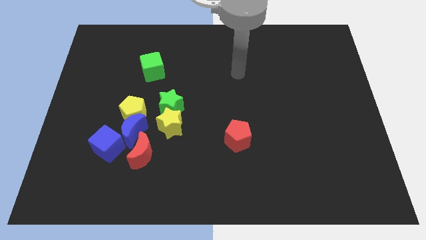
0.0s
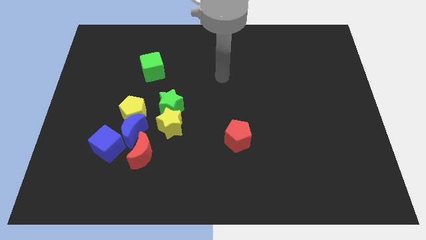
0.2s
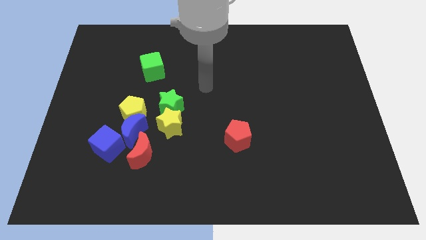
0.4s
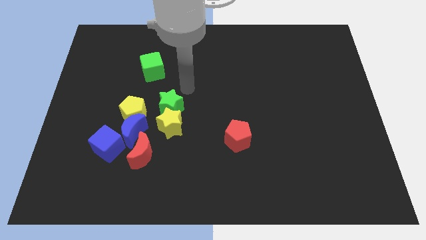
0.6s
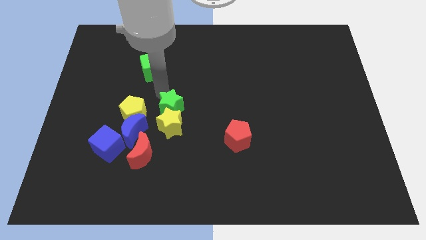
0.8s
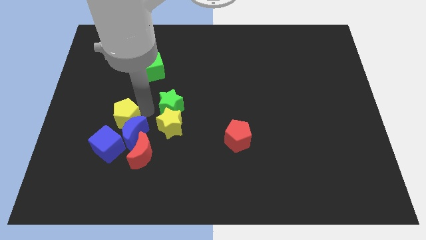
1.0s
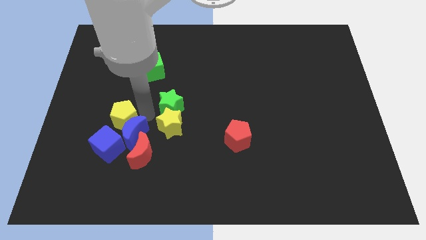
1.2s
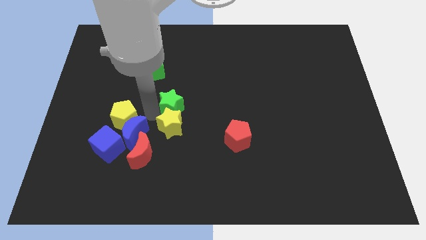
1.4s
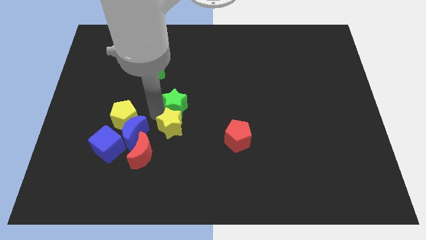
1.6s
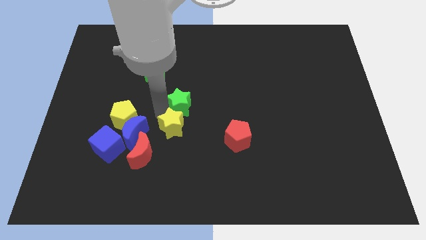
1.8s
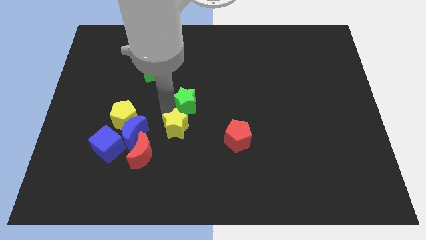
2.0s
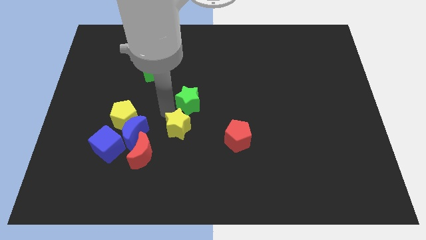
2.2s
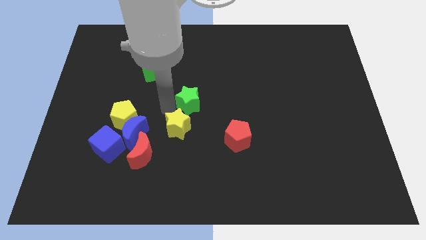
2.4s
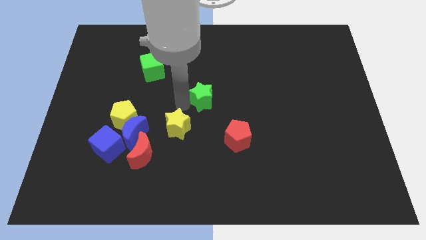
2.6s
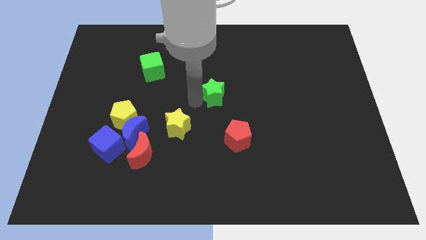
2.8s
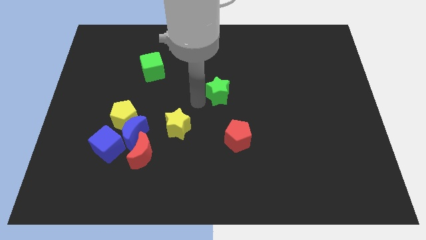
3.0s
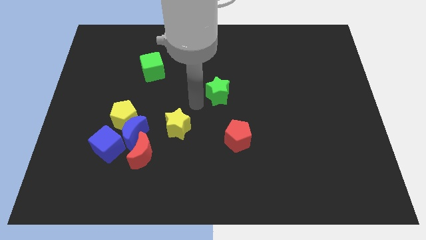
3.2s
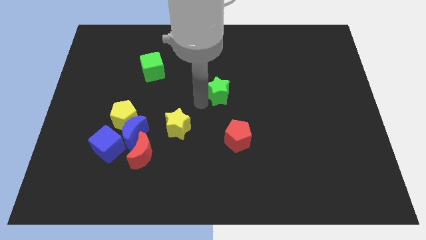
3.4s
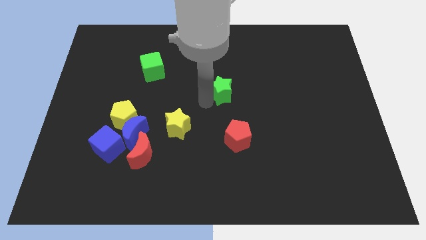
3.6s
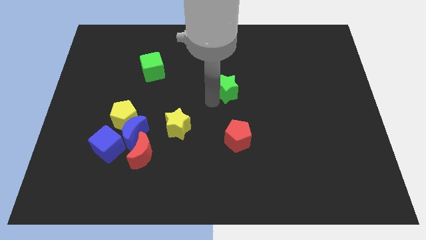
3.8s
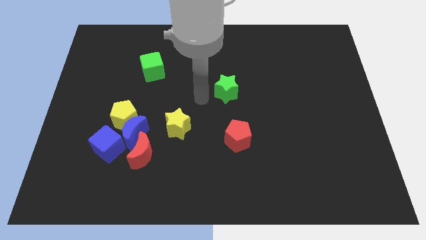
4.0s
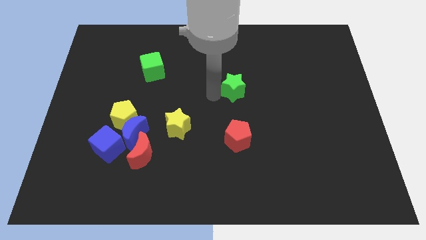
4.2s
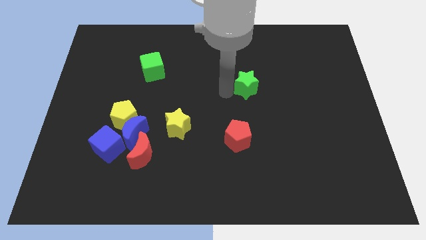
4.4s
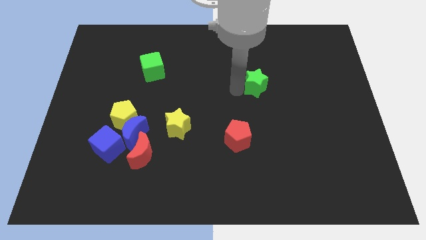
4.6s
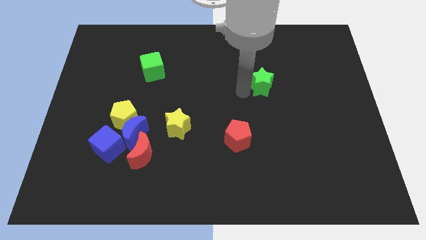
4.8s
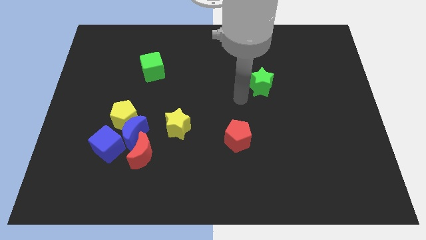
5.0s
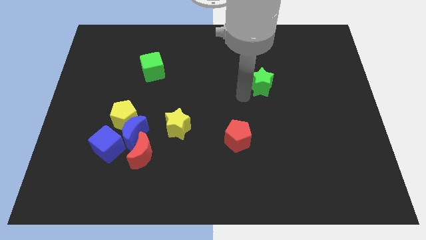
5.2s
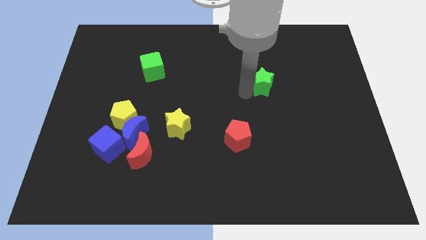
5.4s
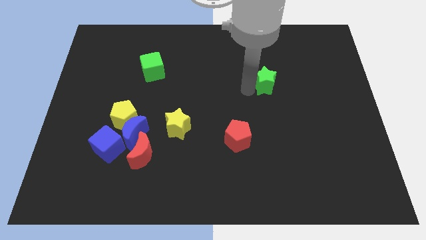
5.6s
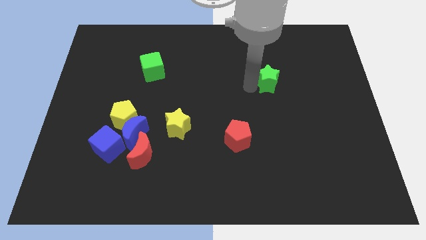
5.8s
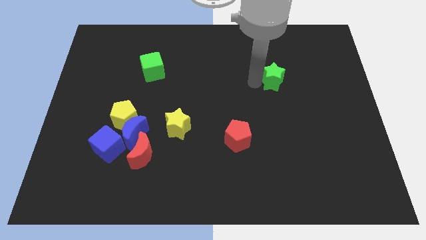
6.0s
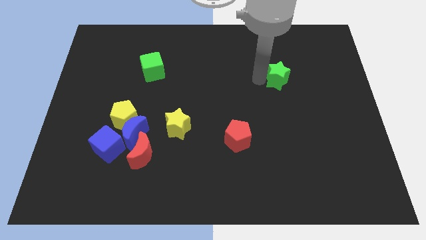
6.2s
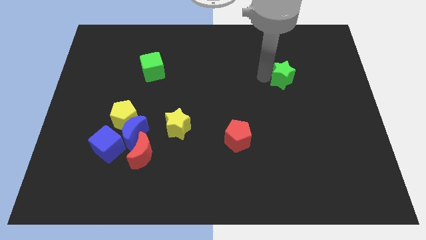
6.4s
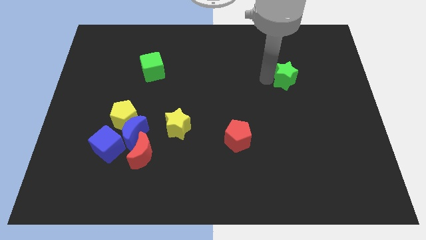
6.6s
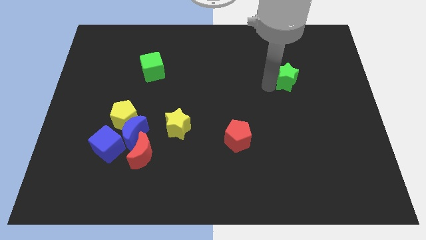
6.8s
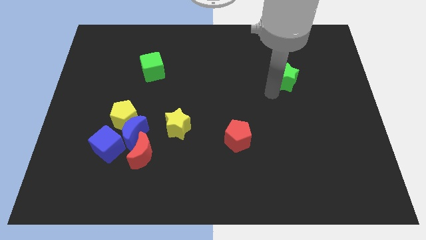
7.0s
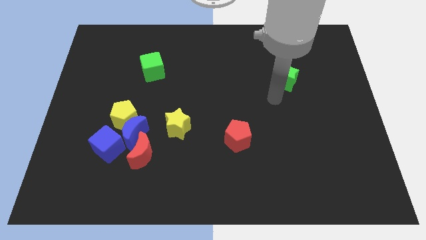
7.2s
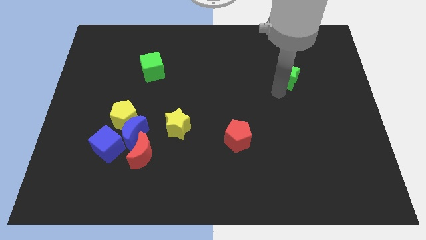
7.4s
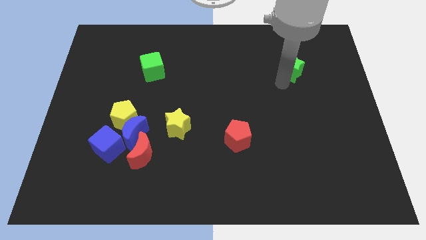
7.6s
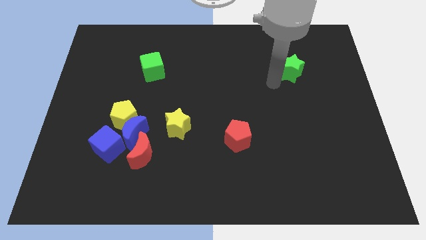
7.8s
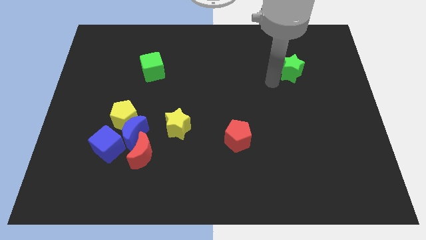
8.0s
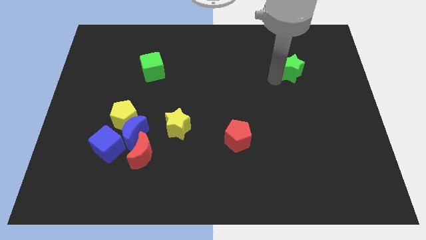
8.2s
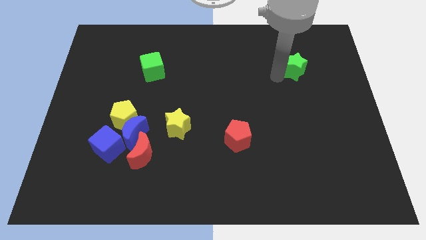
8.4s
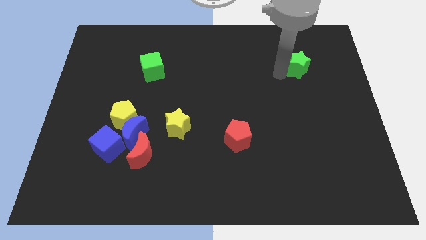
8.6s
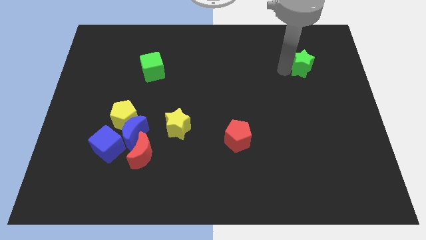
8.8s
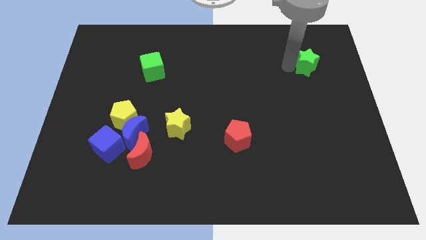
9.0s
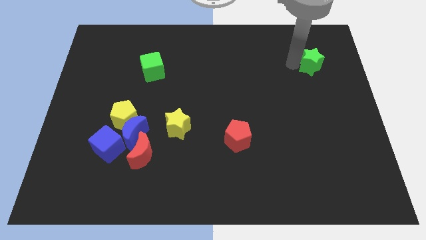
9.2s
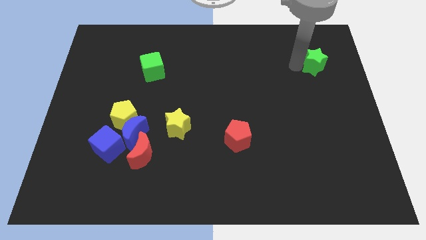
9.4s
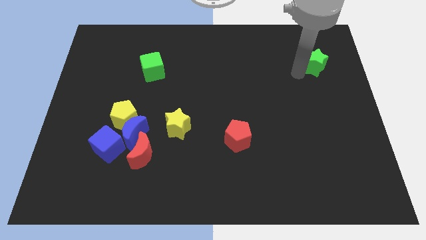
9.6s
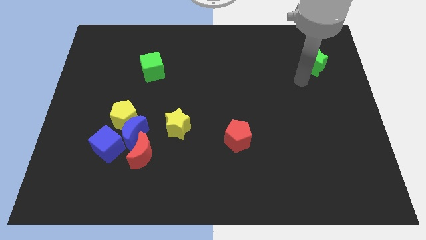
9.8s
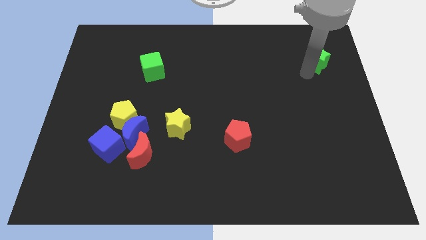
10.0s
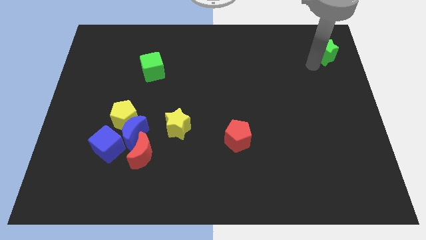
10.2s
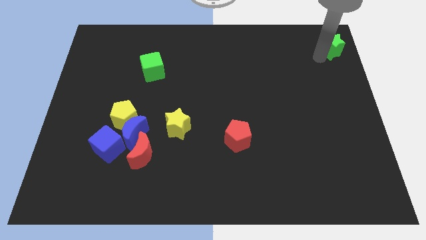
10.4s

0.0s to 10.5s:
put the green star to the top right corner

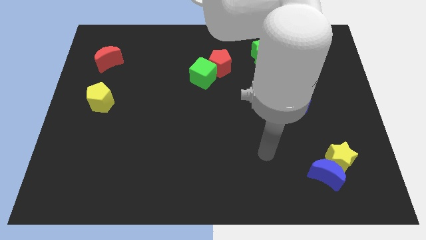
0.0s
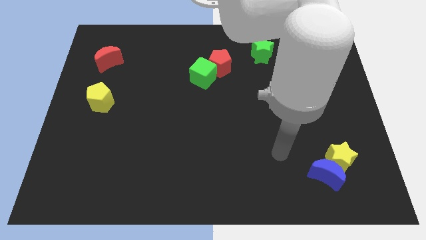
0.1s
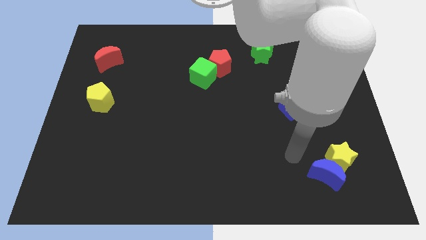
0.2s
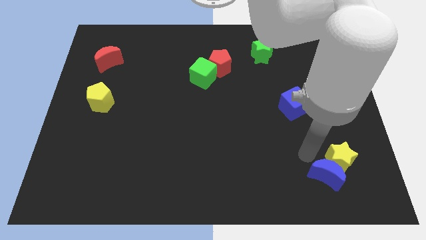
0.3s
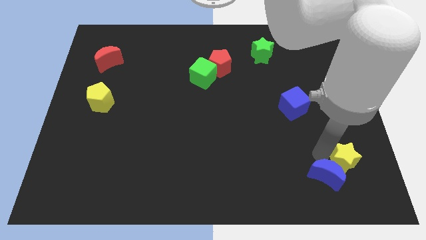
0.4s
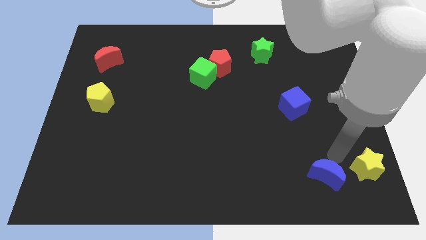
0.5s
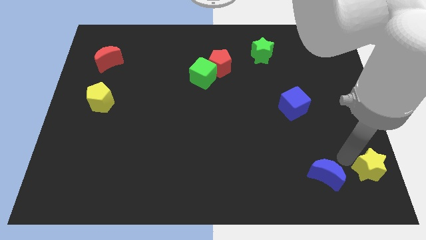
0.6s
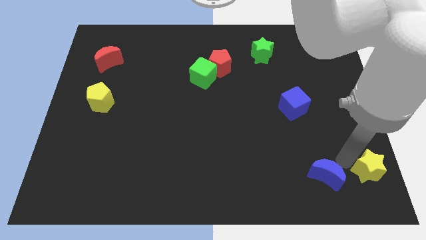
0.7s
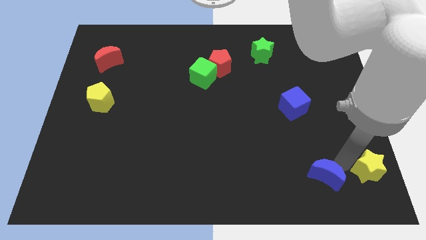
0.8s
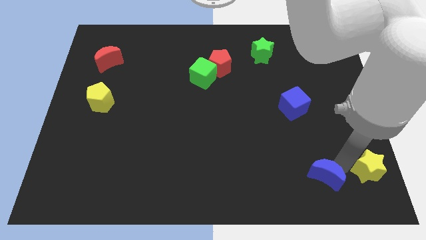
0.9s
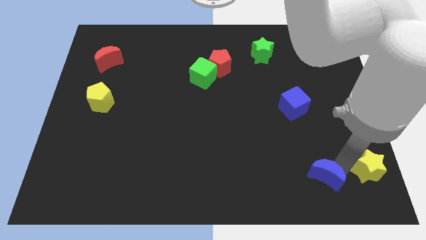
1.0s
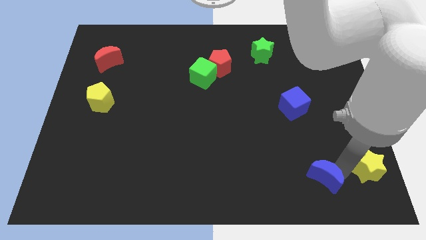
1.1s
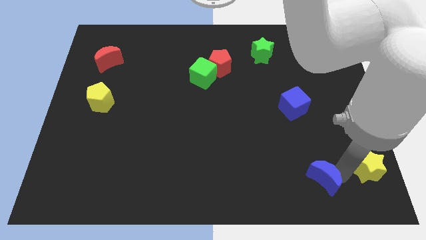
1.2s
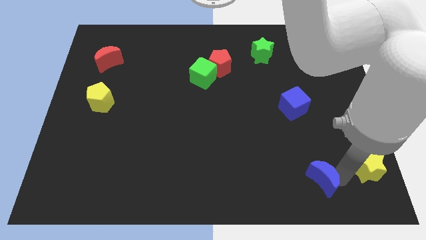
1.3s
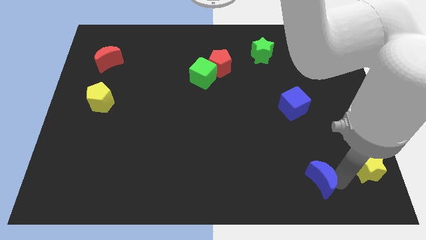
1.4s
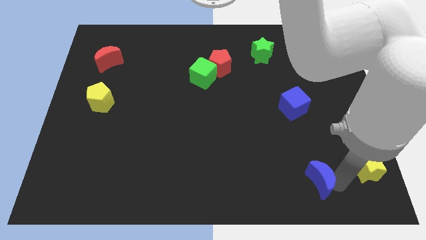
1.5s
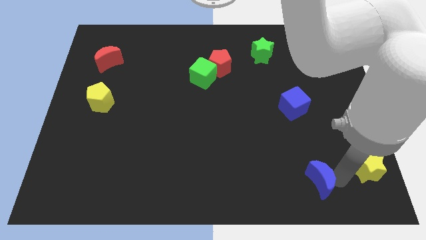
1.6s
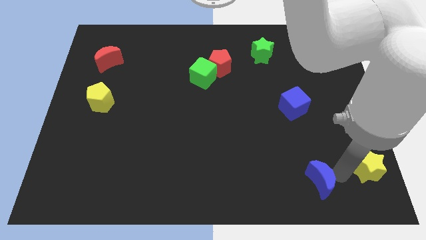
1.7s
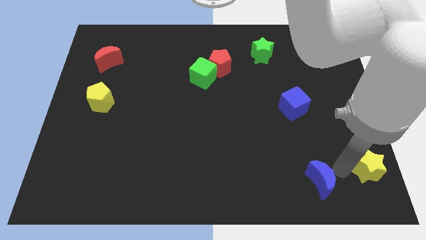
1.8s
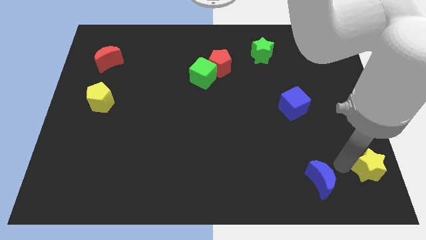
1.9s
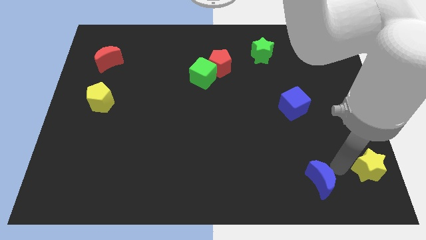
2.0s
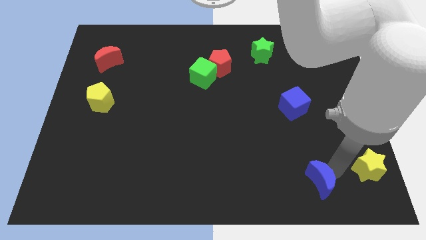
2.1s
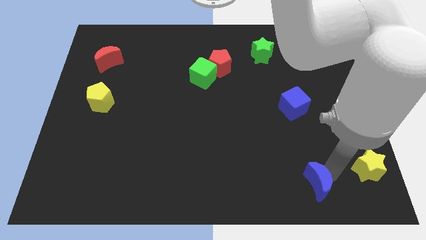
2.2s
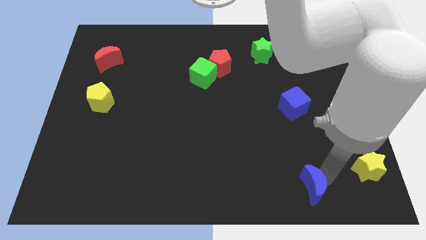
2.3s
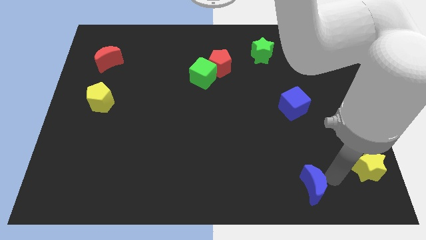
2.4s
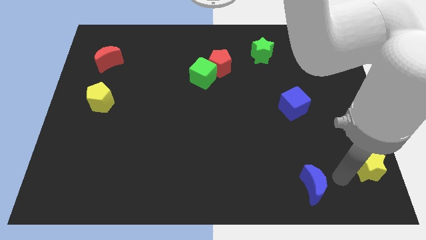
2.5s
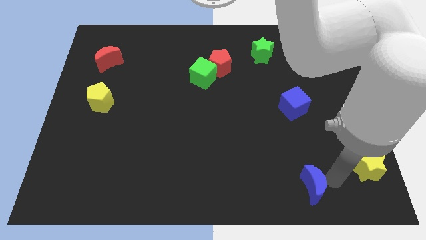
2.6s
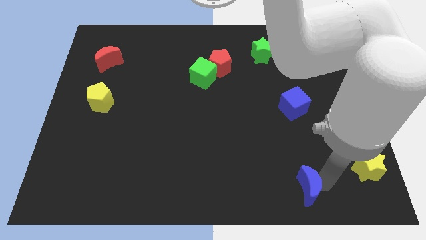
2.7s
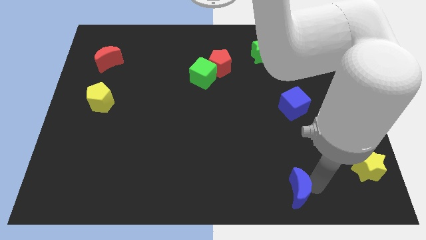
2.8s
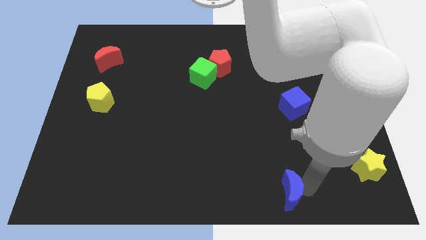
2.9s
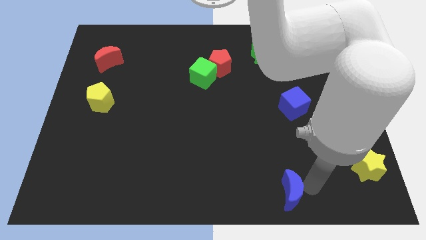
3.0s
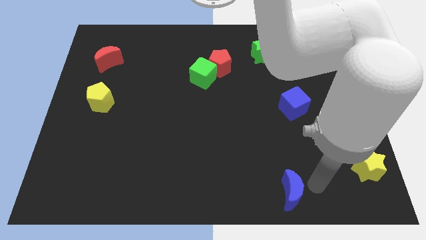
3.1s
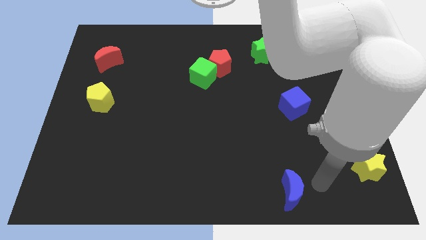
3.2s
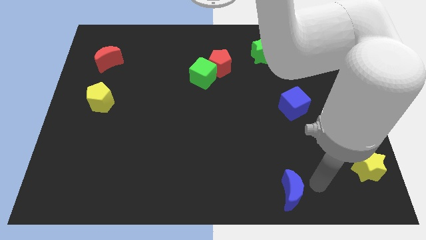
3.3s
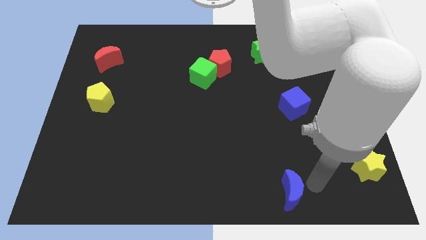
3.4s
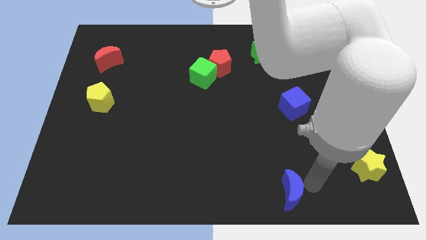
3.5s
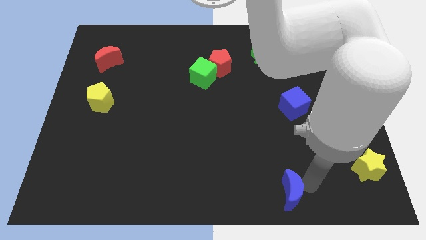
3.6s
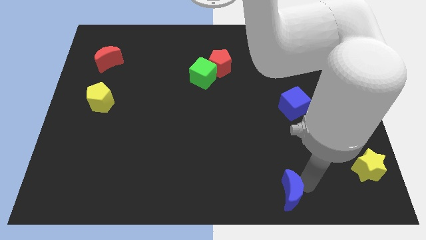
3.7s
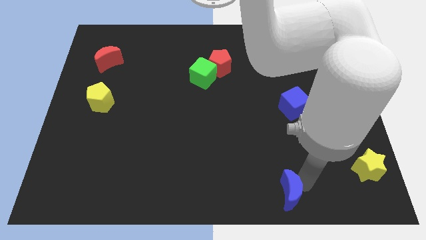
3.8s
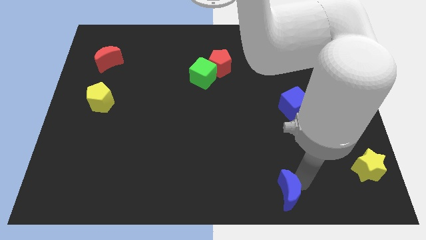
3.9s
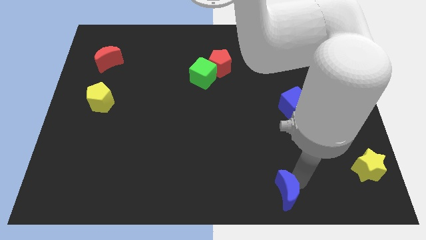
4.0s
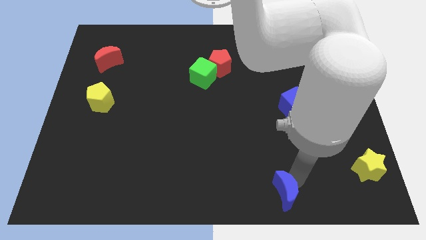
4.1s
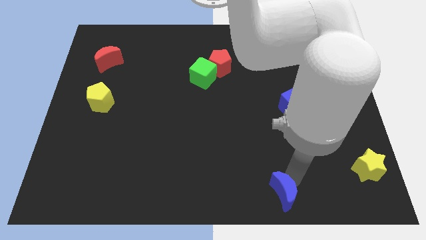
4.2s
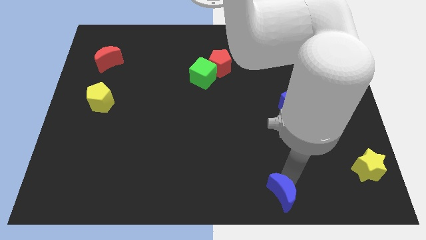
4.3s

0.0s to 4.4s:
put the blue moon to the bottom
